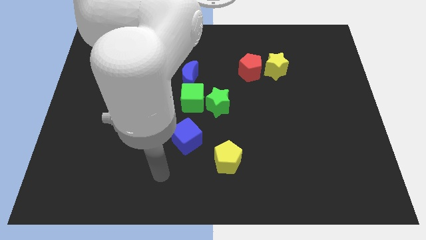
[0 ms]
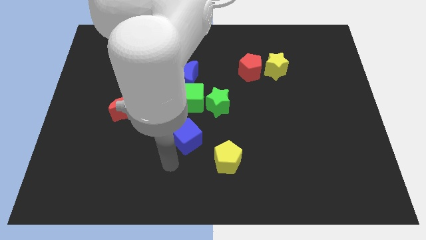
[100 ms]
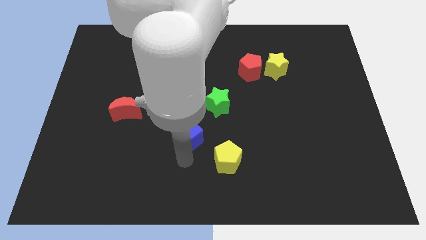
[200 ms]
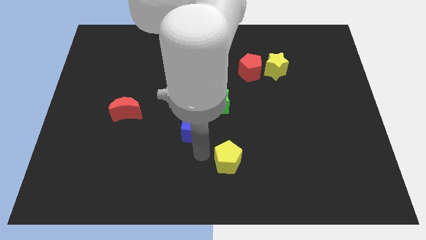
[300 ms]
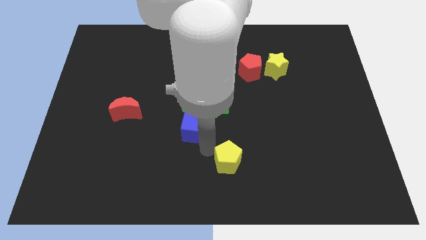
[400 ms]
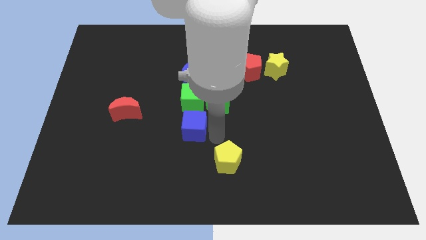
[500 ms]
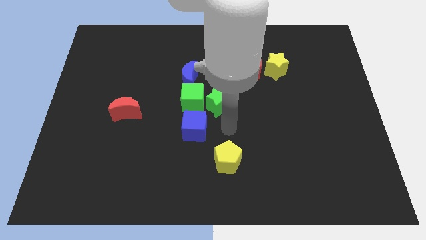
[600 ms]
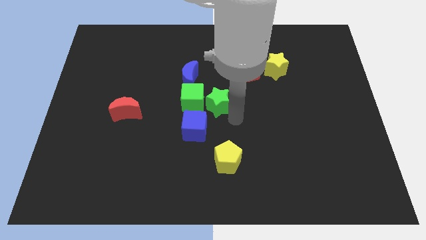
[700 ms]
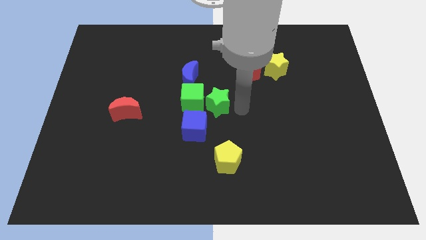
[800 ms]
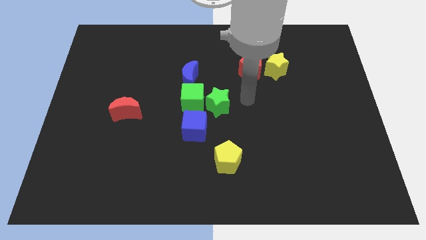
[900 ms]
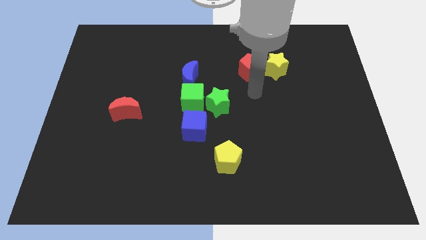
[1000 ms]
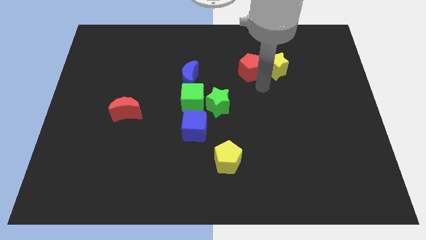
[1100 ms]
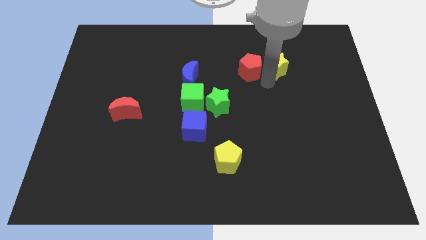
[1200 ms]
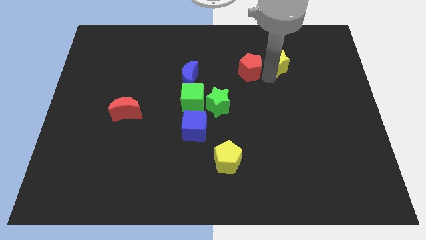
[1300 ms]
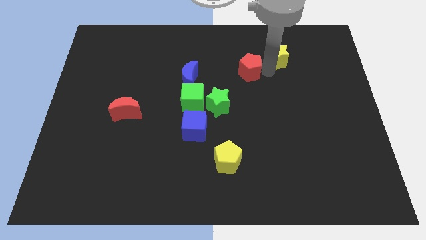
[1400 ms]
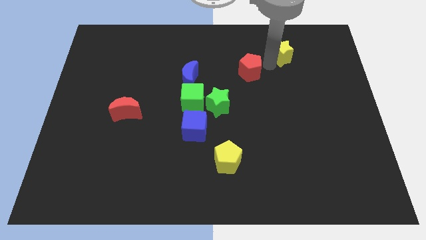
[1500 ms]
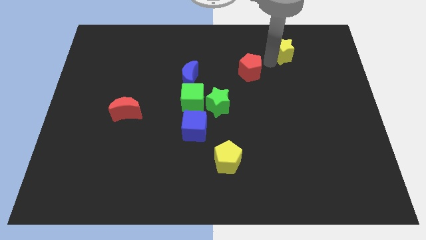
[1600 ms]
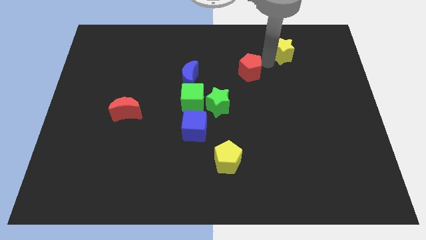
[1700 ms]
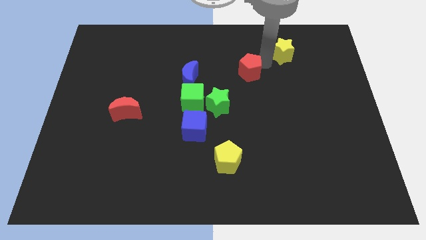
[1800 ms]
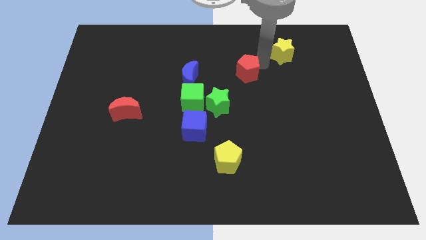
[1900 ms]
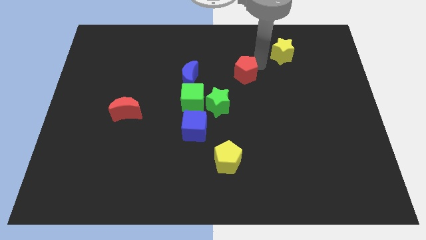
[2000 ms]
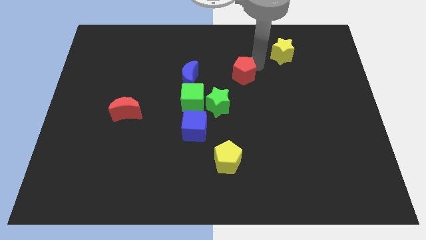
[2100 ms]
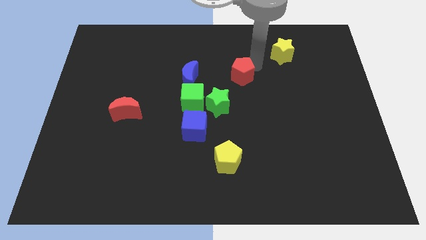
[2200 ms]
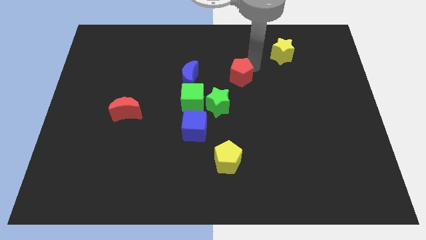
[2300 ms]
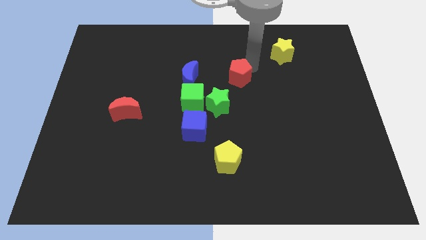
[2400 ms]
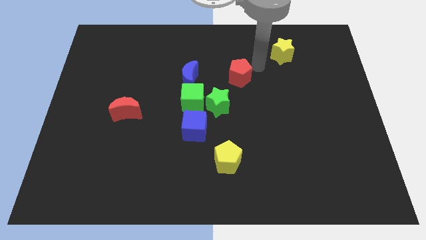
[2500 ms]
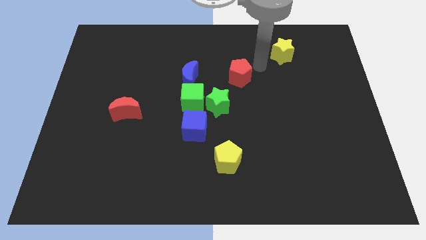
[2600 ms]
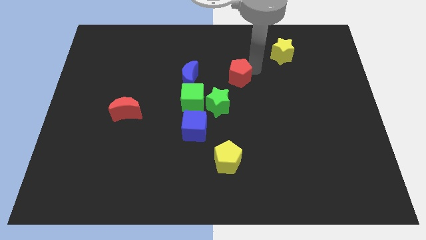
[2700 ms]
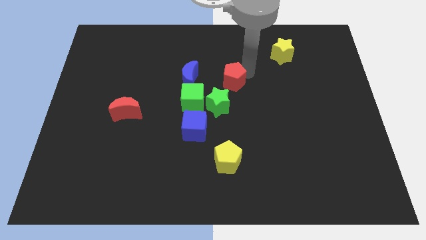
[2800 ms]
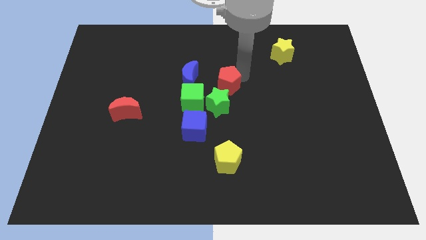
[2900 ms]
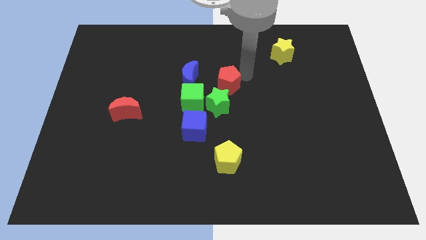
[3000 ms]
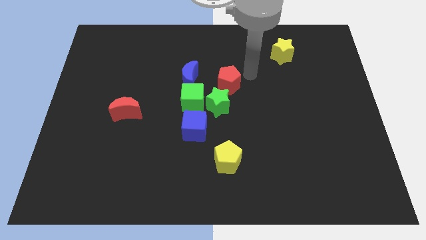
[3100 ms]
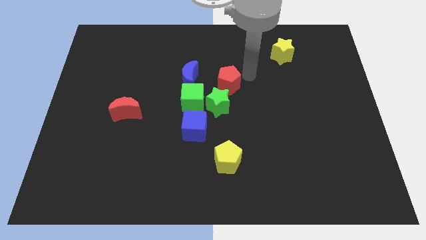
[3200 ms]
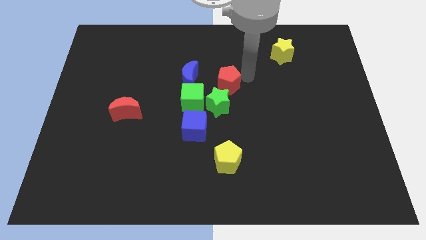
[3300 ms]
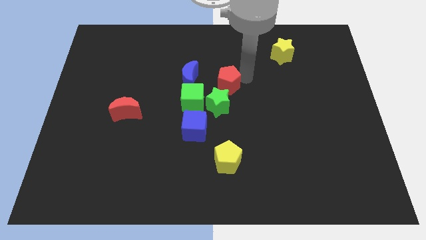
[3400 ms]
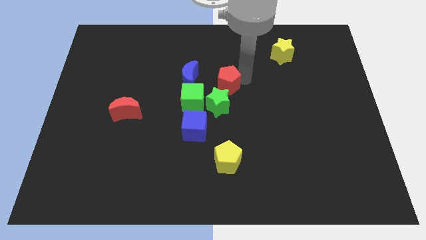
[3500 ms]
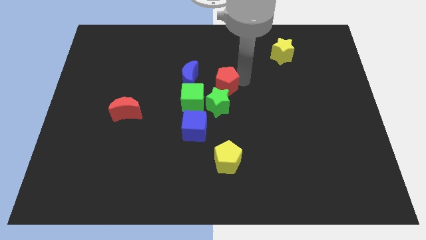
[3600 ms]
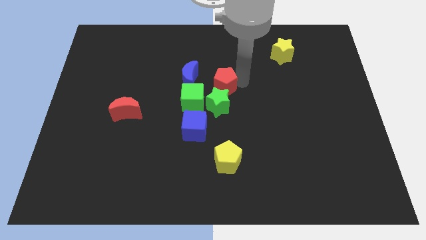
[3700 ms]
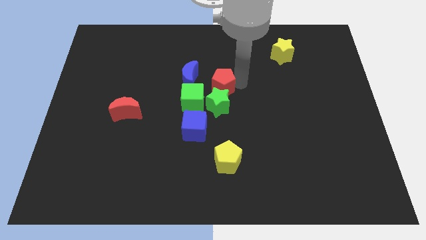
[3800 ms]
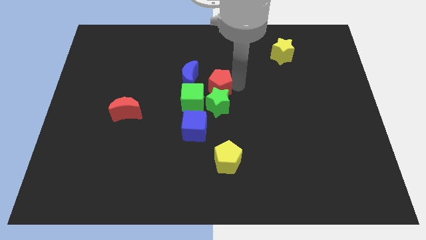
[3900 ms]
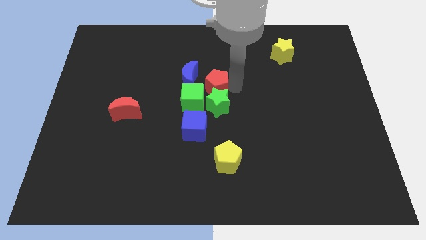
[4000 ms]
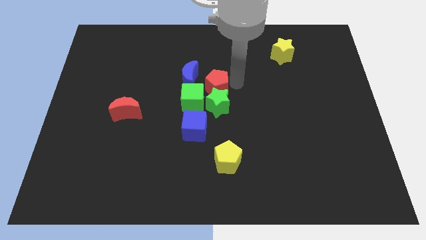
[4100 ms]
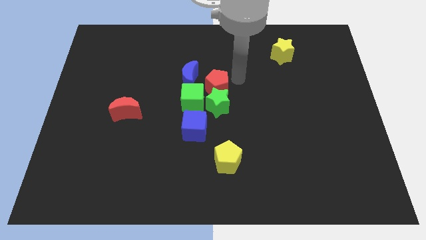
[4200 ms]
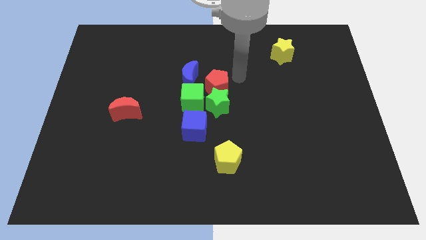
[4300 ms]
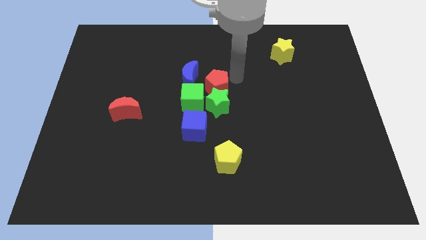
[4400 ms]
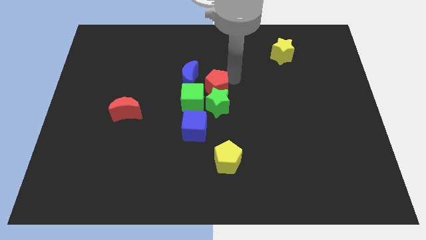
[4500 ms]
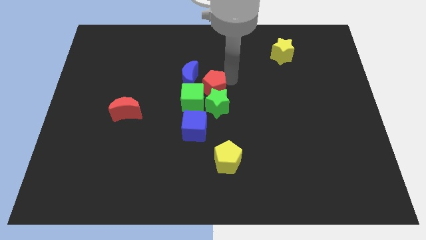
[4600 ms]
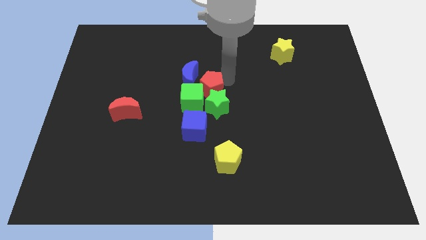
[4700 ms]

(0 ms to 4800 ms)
put the red pentagon to the green cube

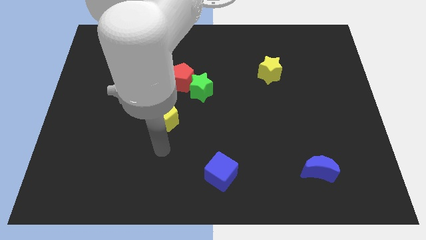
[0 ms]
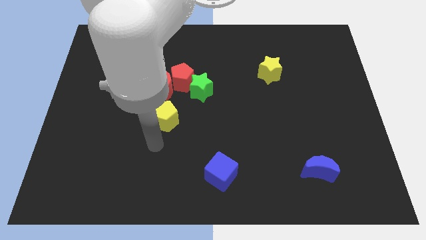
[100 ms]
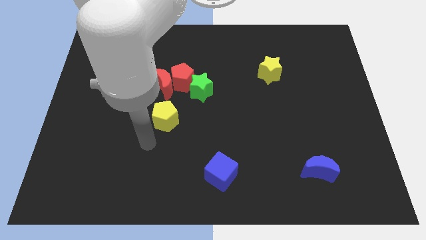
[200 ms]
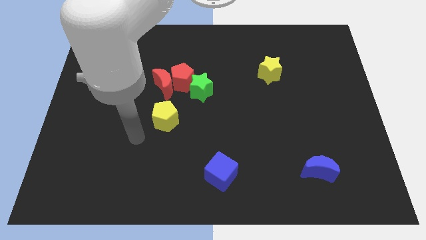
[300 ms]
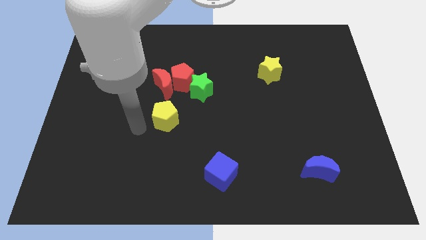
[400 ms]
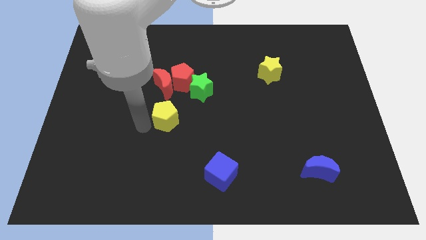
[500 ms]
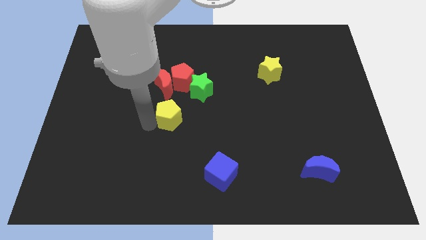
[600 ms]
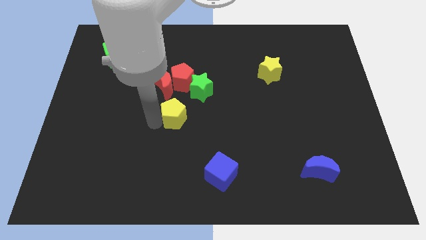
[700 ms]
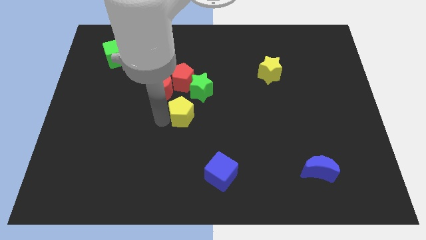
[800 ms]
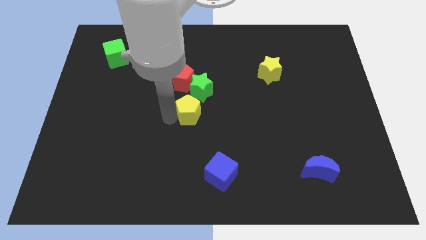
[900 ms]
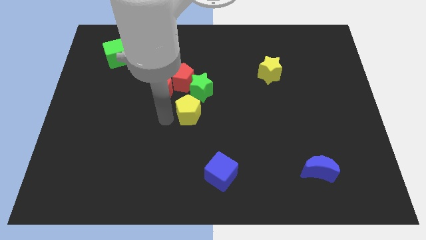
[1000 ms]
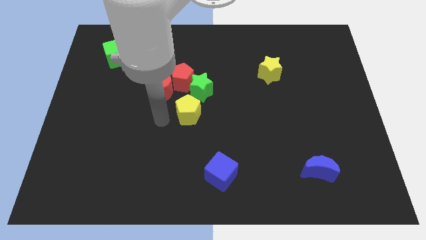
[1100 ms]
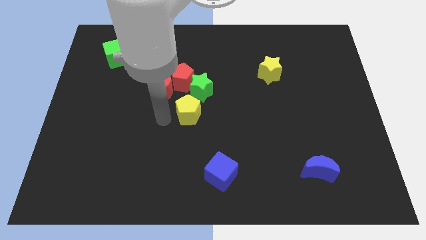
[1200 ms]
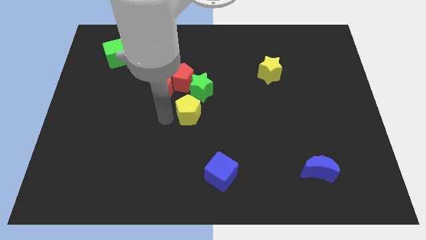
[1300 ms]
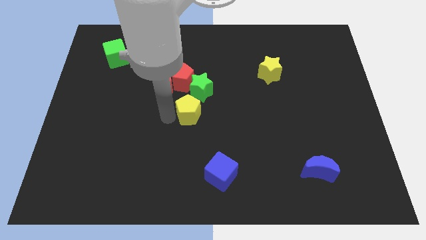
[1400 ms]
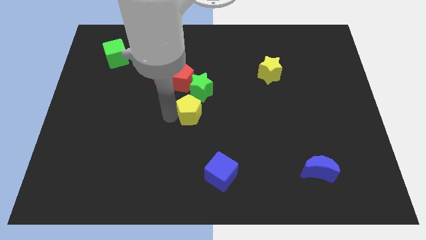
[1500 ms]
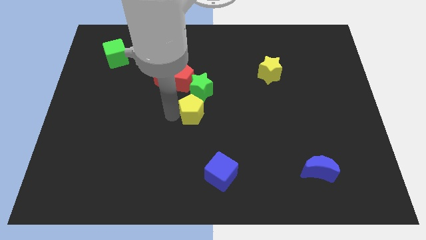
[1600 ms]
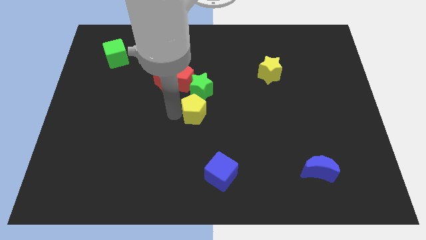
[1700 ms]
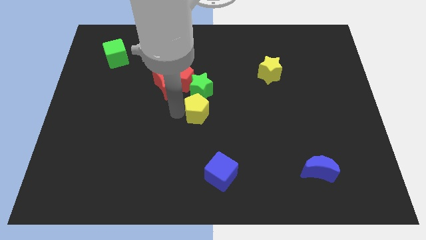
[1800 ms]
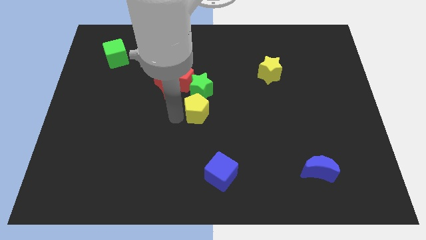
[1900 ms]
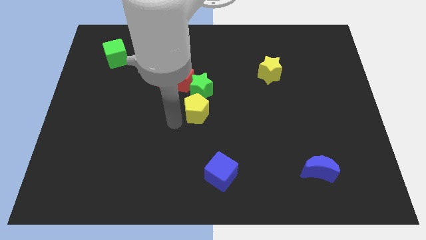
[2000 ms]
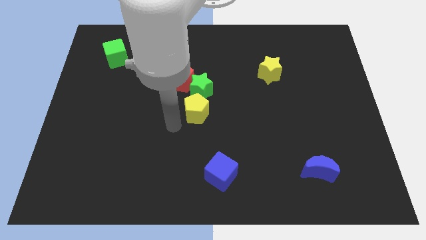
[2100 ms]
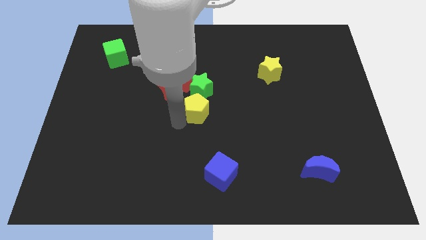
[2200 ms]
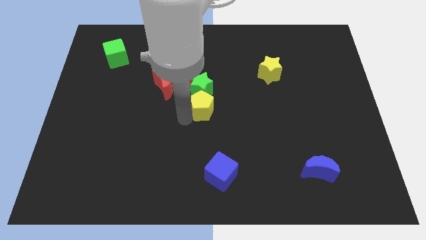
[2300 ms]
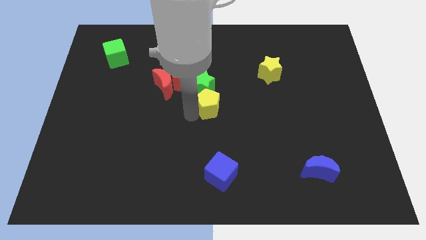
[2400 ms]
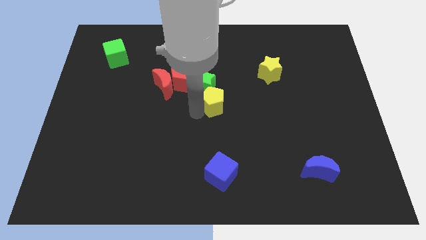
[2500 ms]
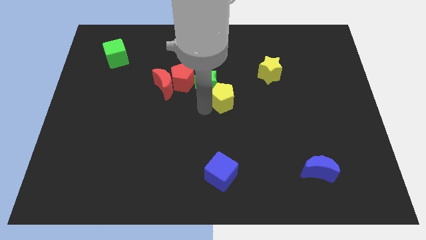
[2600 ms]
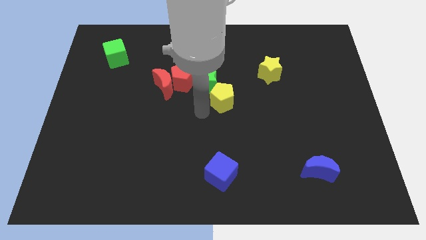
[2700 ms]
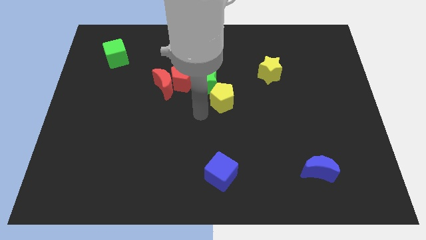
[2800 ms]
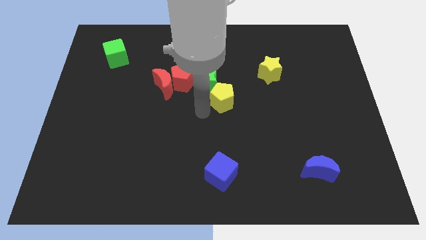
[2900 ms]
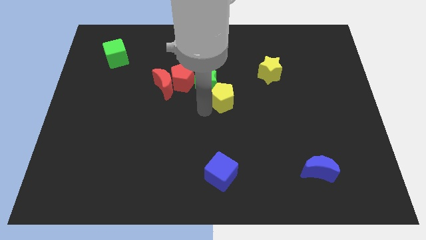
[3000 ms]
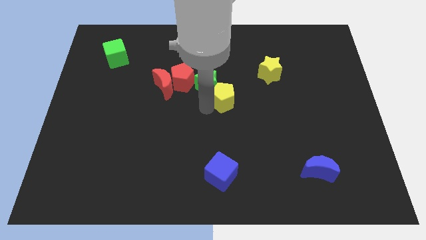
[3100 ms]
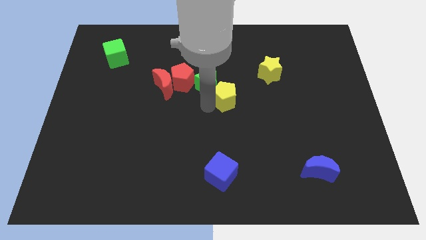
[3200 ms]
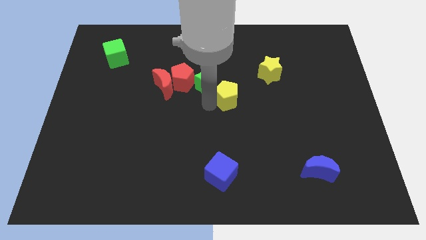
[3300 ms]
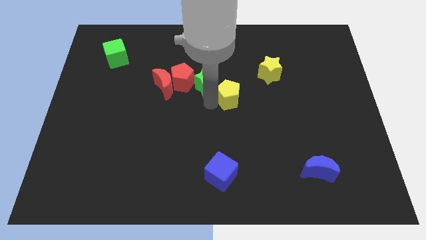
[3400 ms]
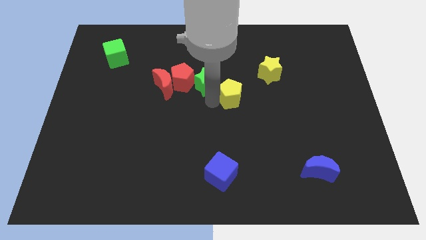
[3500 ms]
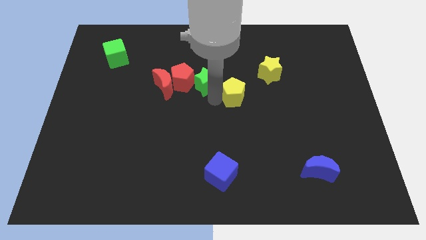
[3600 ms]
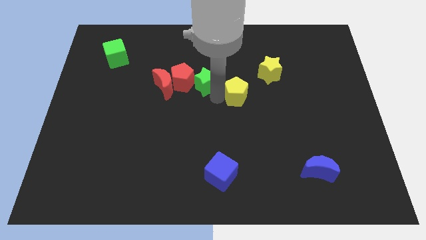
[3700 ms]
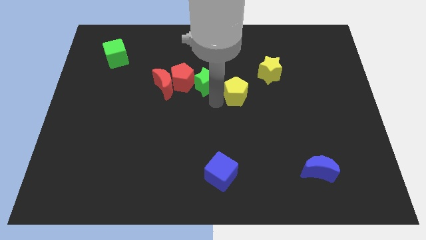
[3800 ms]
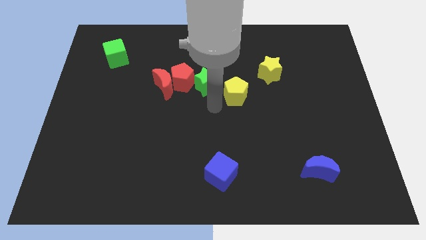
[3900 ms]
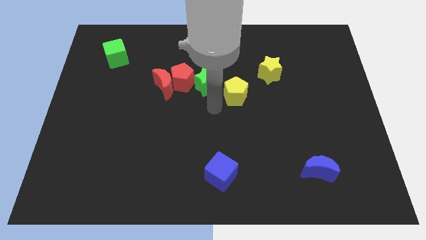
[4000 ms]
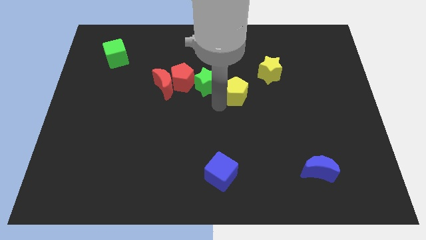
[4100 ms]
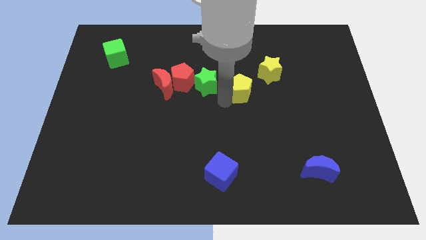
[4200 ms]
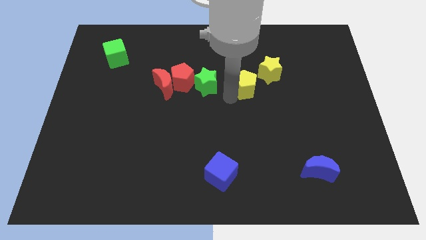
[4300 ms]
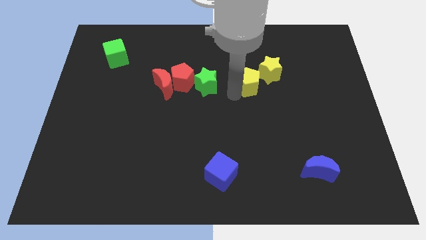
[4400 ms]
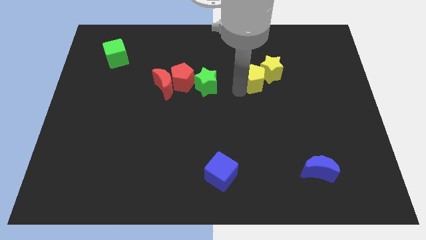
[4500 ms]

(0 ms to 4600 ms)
put the yellow pentagon to the yellow star
